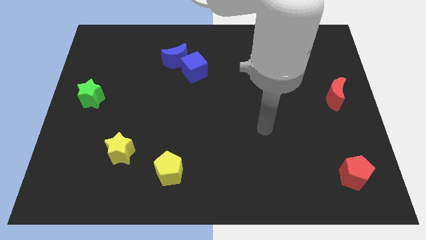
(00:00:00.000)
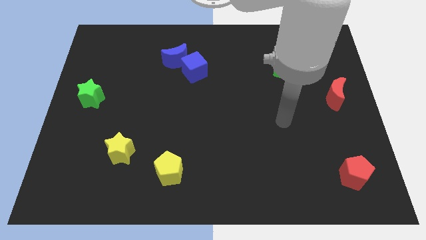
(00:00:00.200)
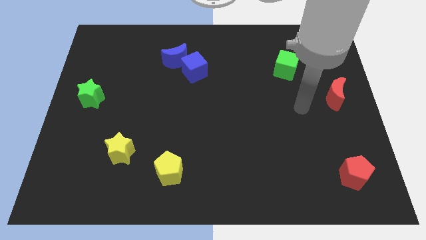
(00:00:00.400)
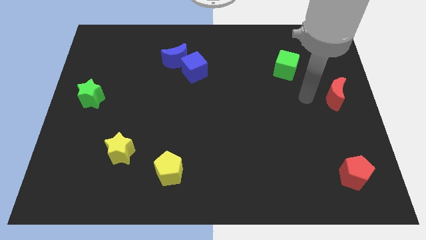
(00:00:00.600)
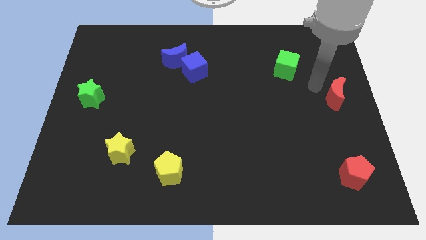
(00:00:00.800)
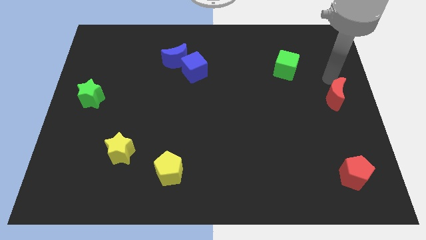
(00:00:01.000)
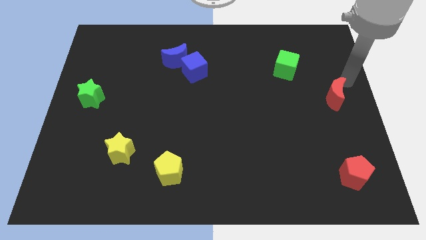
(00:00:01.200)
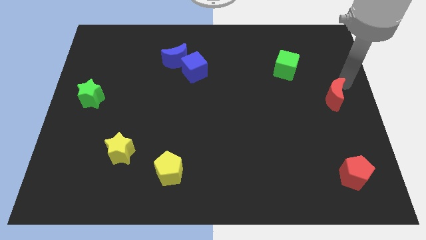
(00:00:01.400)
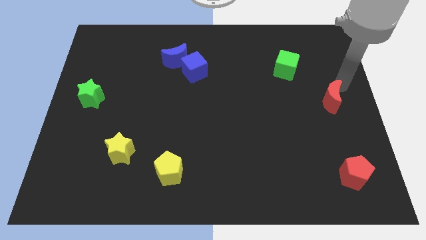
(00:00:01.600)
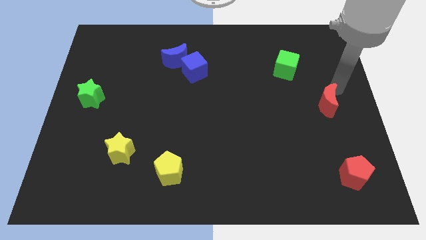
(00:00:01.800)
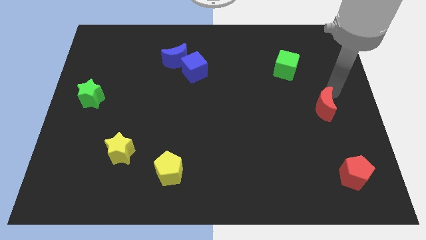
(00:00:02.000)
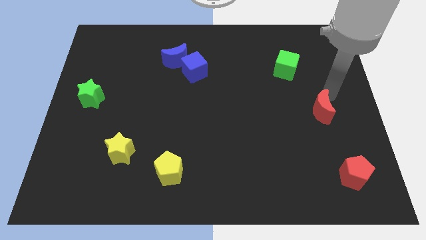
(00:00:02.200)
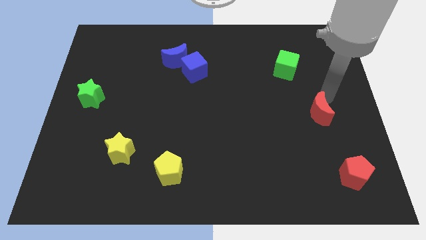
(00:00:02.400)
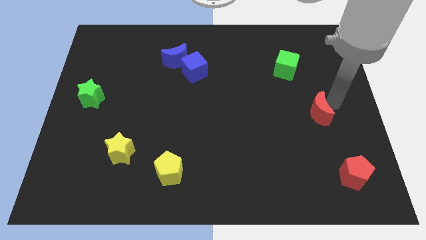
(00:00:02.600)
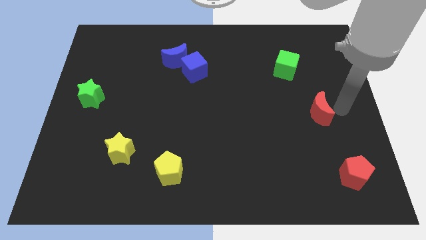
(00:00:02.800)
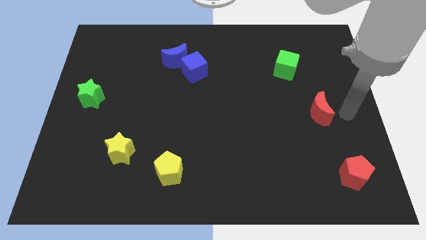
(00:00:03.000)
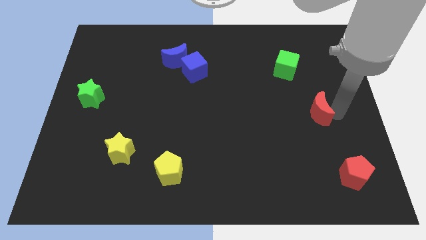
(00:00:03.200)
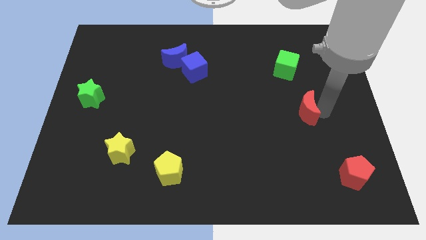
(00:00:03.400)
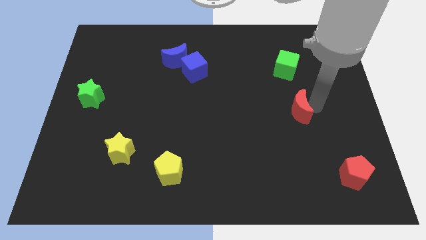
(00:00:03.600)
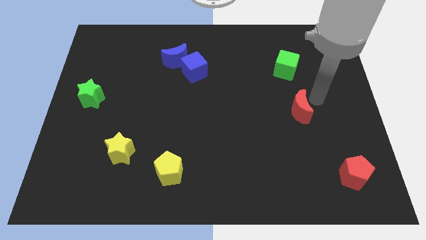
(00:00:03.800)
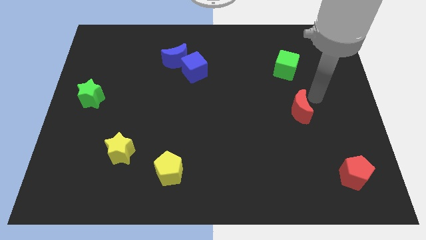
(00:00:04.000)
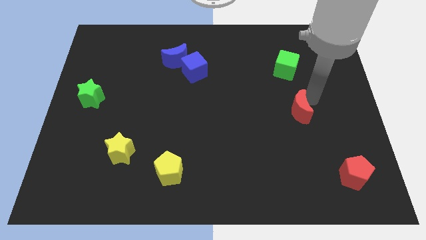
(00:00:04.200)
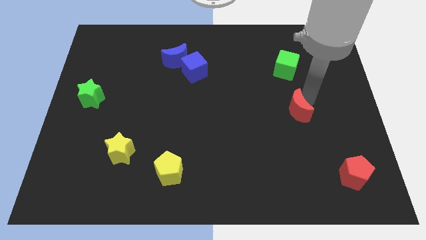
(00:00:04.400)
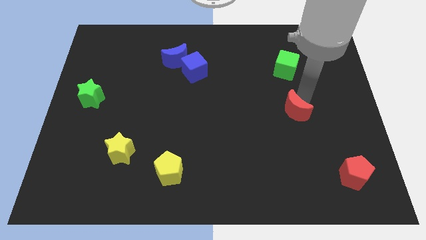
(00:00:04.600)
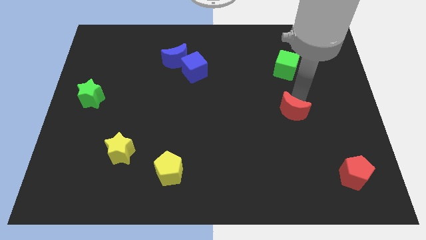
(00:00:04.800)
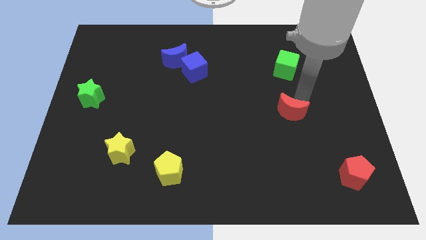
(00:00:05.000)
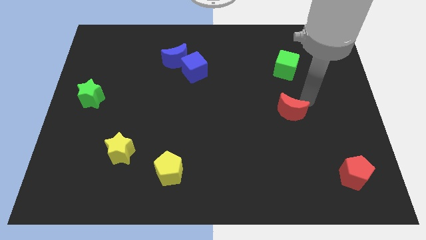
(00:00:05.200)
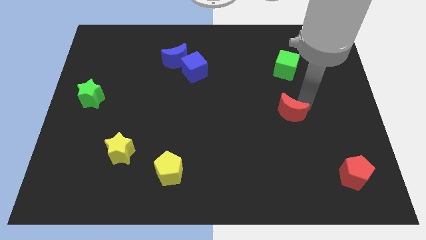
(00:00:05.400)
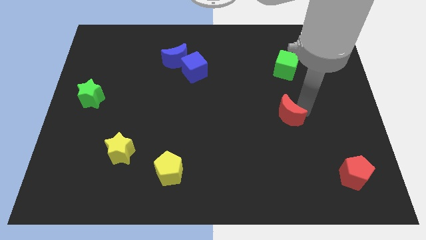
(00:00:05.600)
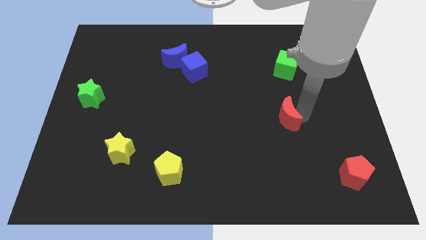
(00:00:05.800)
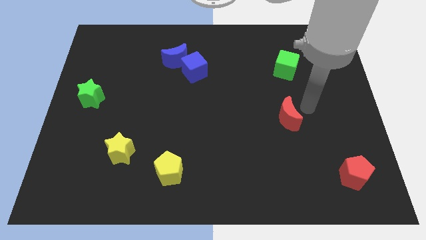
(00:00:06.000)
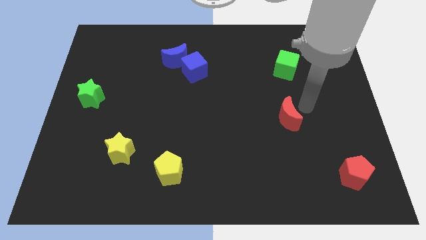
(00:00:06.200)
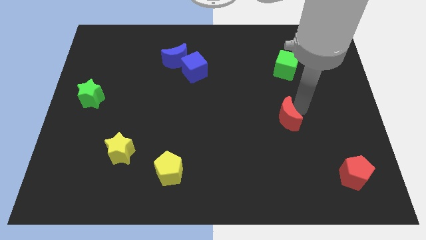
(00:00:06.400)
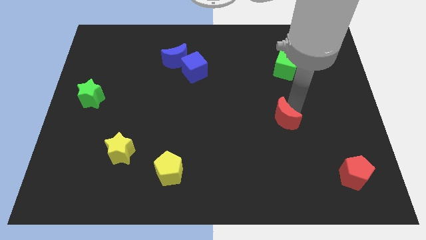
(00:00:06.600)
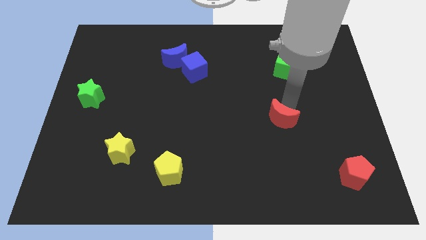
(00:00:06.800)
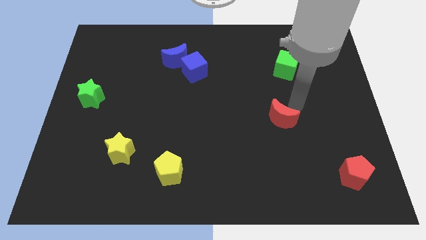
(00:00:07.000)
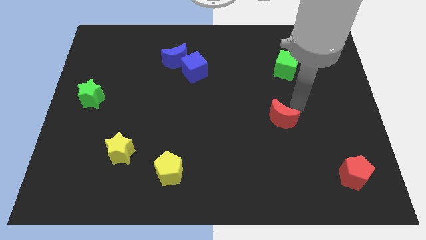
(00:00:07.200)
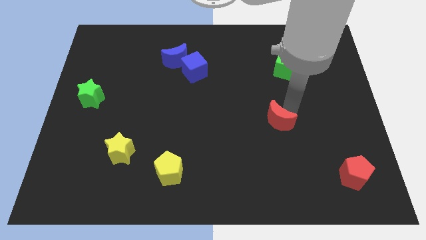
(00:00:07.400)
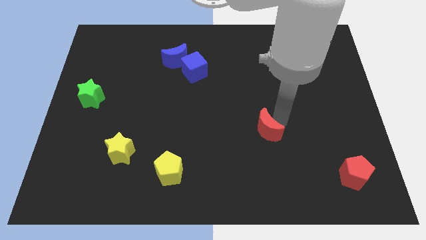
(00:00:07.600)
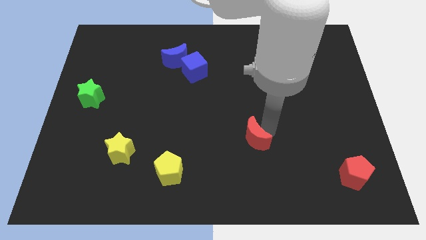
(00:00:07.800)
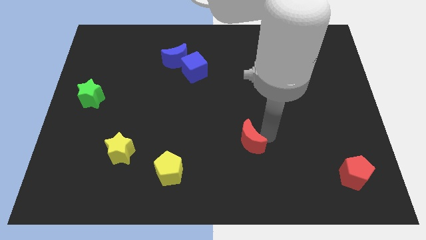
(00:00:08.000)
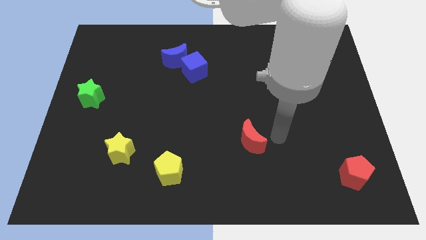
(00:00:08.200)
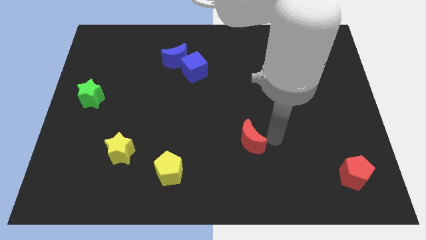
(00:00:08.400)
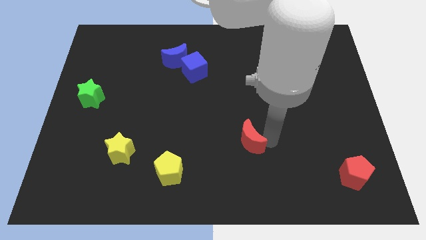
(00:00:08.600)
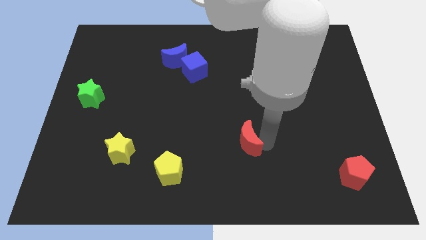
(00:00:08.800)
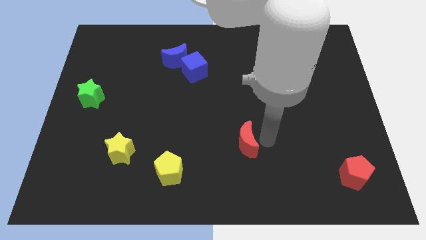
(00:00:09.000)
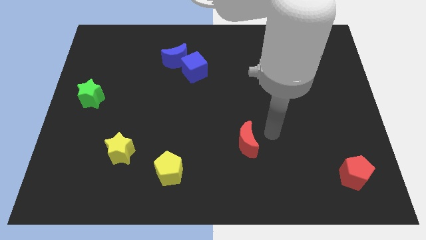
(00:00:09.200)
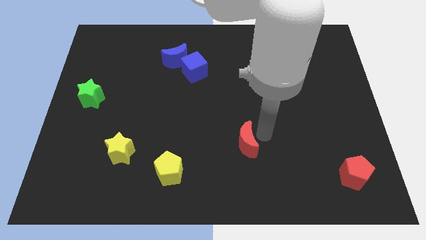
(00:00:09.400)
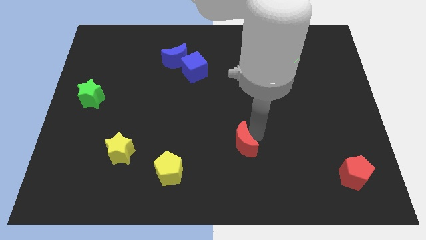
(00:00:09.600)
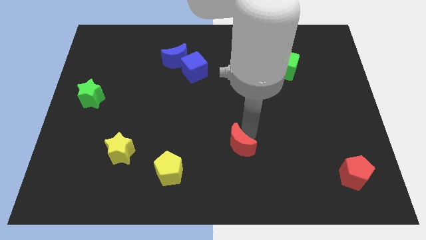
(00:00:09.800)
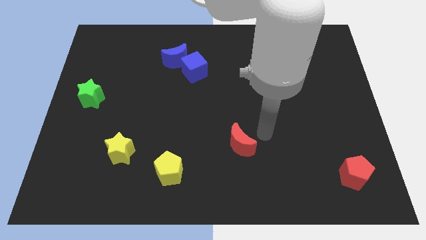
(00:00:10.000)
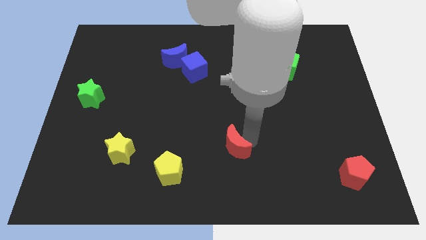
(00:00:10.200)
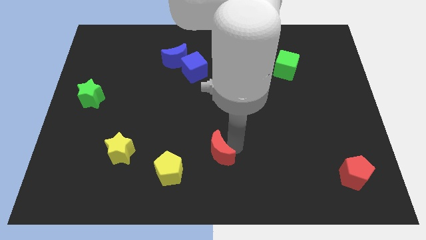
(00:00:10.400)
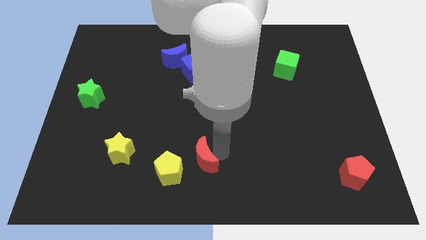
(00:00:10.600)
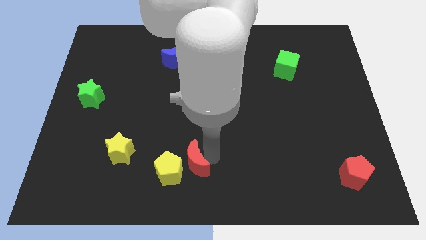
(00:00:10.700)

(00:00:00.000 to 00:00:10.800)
slide the red moon next to the yellow pentagon

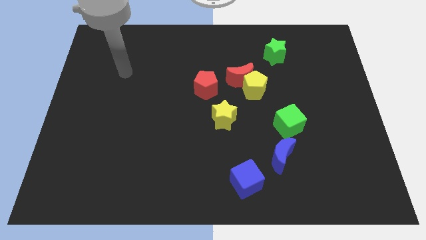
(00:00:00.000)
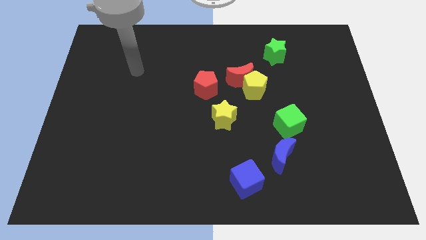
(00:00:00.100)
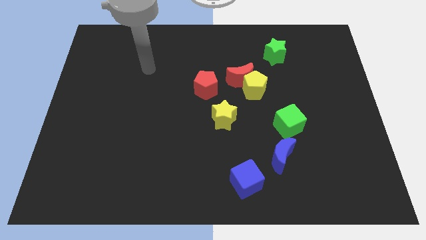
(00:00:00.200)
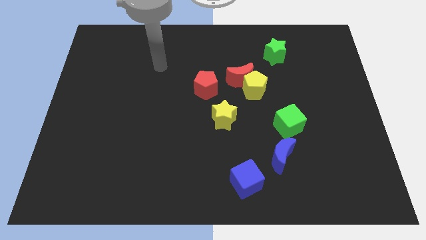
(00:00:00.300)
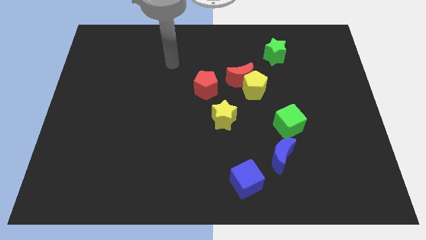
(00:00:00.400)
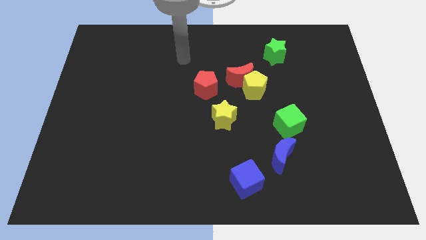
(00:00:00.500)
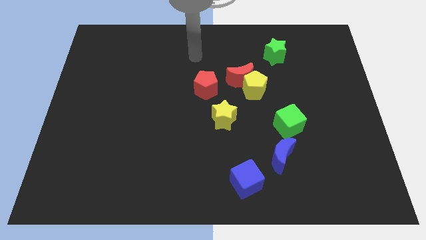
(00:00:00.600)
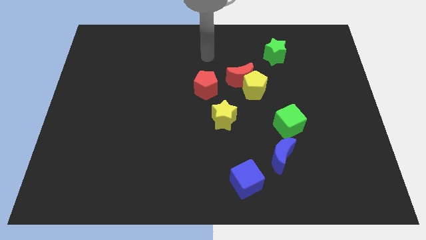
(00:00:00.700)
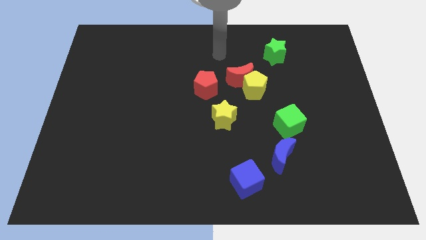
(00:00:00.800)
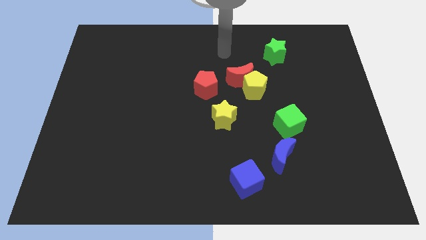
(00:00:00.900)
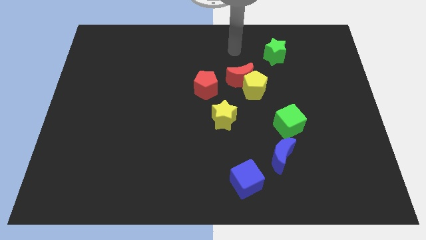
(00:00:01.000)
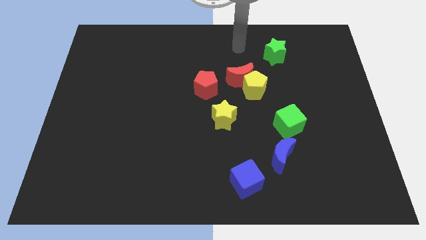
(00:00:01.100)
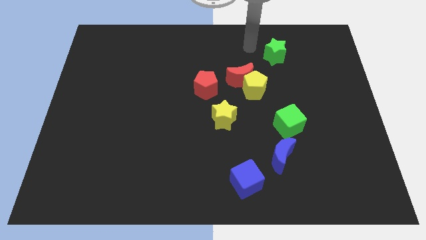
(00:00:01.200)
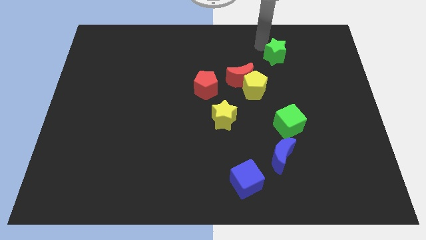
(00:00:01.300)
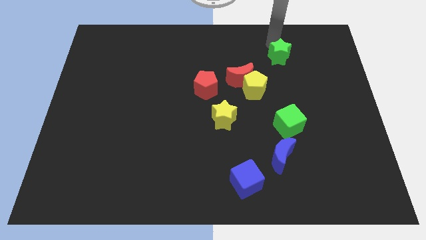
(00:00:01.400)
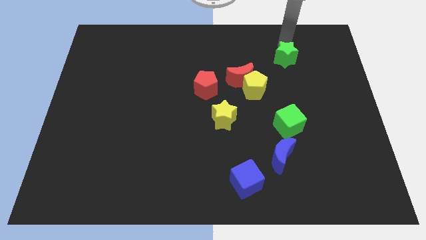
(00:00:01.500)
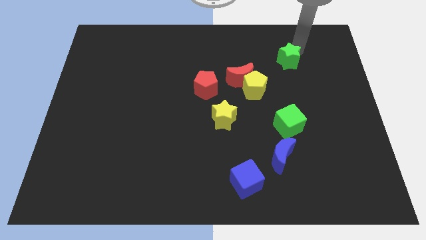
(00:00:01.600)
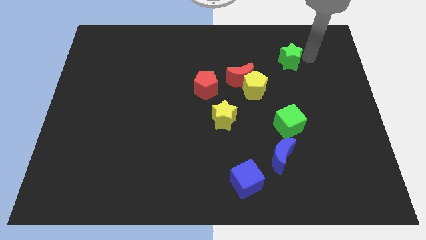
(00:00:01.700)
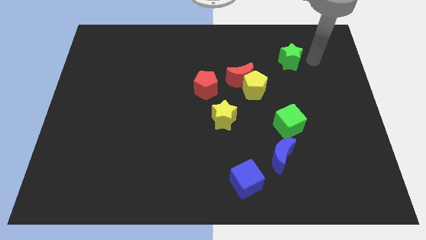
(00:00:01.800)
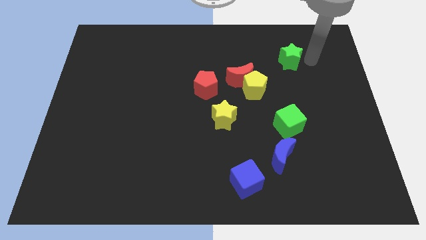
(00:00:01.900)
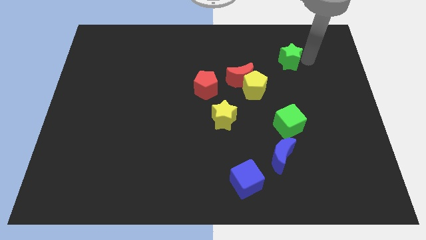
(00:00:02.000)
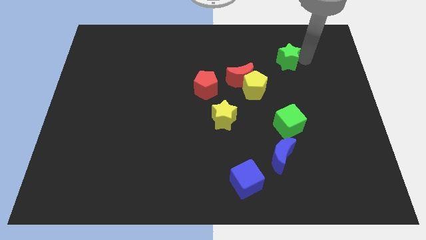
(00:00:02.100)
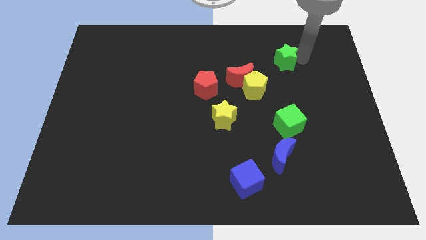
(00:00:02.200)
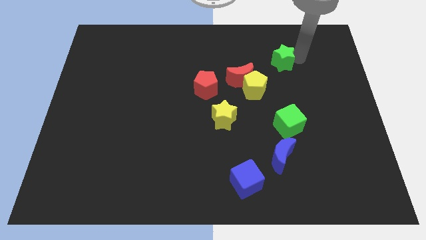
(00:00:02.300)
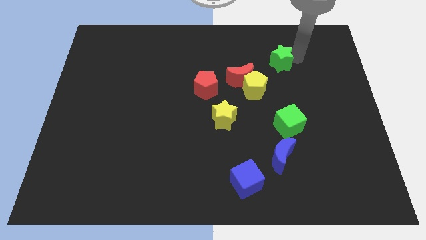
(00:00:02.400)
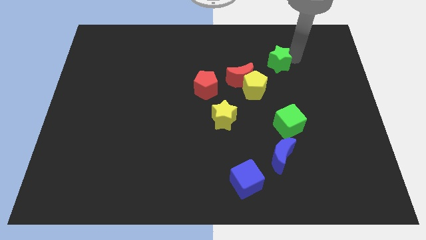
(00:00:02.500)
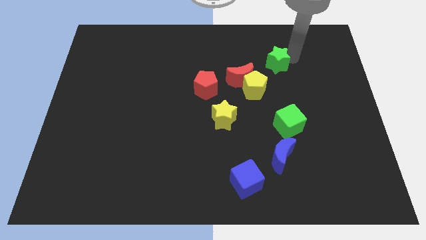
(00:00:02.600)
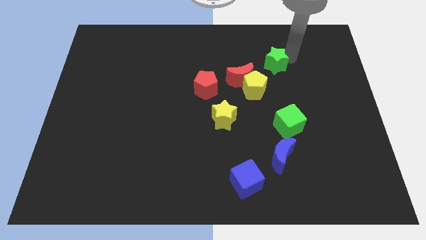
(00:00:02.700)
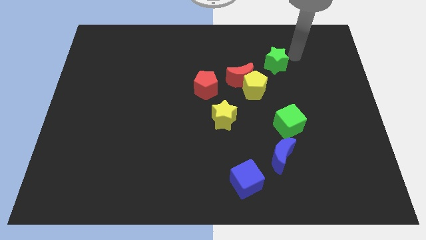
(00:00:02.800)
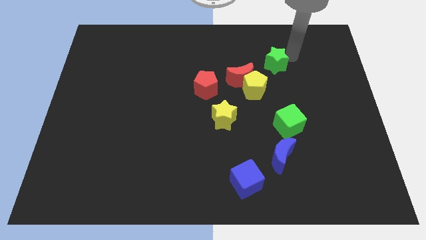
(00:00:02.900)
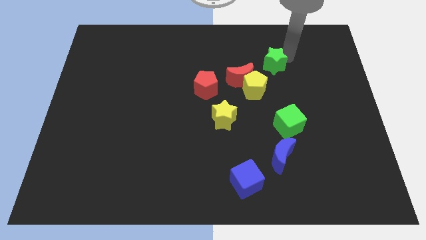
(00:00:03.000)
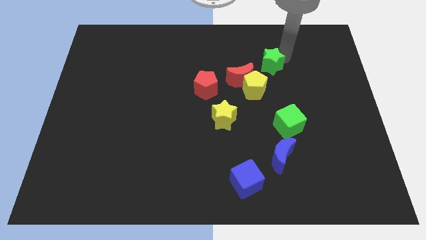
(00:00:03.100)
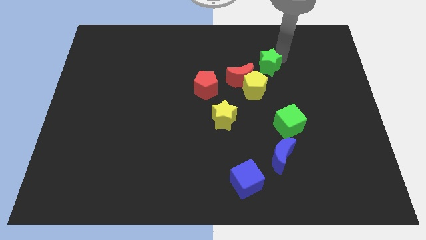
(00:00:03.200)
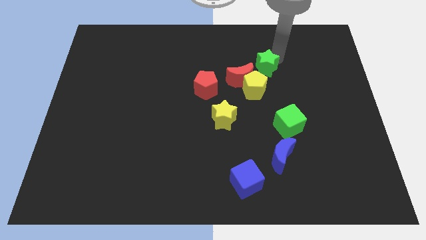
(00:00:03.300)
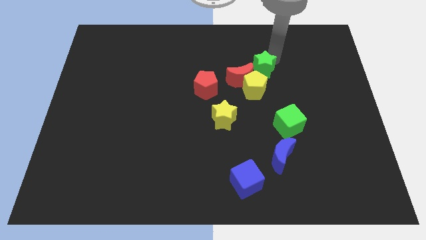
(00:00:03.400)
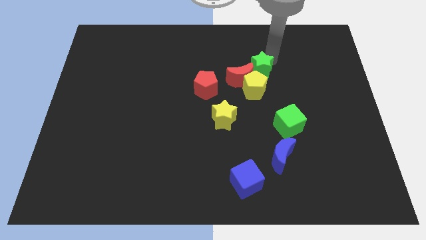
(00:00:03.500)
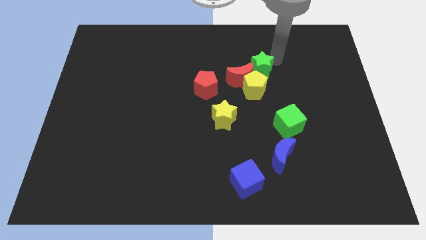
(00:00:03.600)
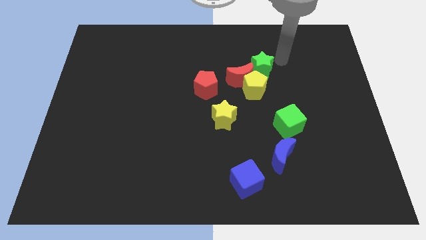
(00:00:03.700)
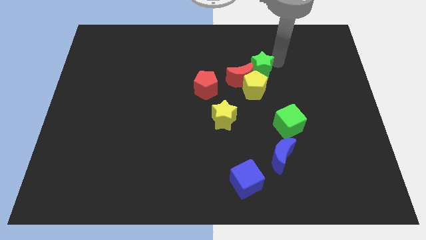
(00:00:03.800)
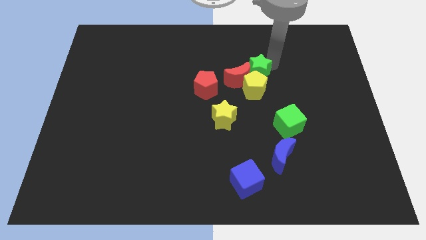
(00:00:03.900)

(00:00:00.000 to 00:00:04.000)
push the green star to the red moon
